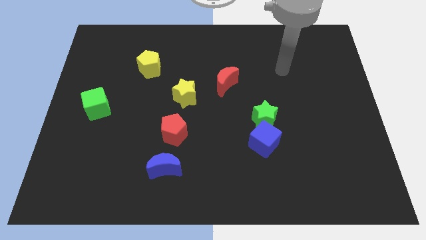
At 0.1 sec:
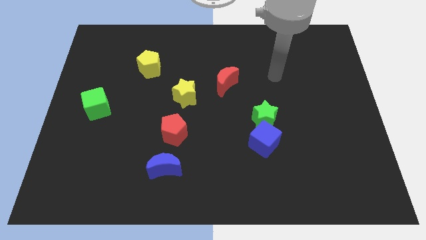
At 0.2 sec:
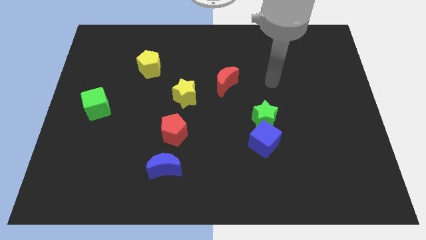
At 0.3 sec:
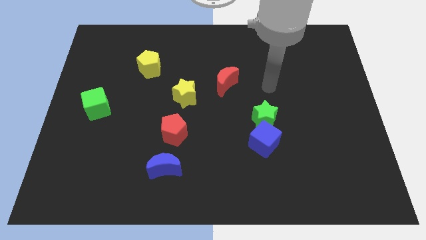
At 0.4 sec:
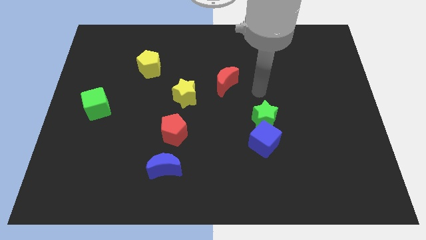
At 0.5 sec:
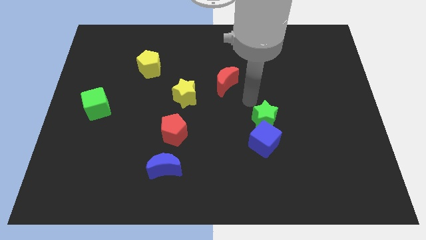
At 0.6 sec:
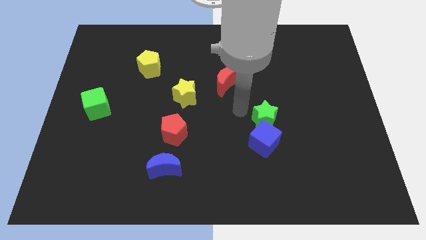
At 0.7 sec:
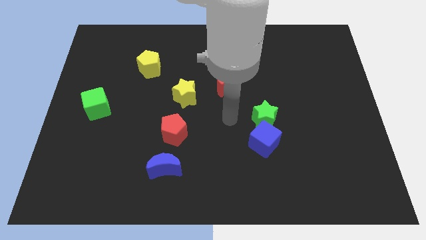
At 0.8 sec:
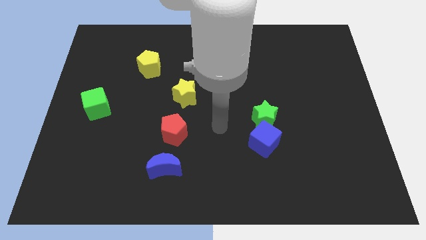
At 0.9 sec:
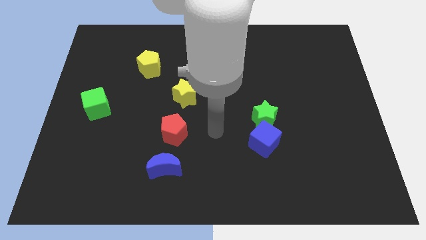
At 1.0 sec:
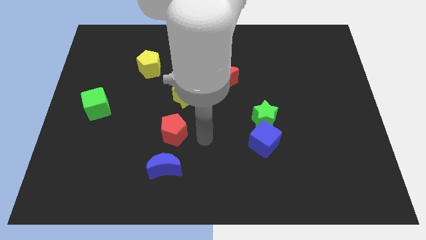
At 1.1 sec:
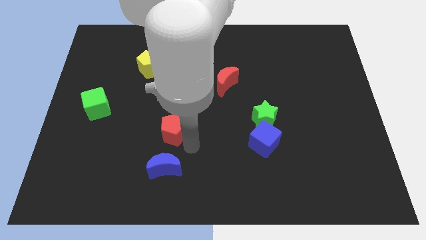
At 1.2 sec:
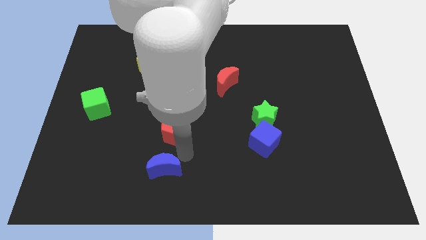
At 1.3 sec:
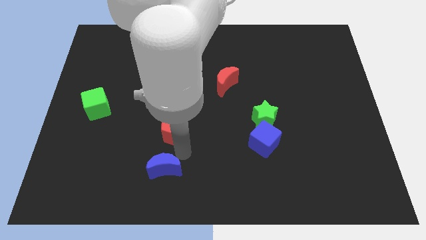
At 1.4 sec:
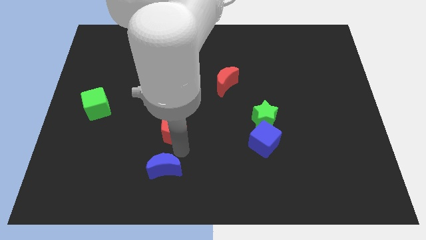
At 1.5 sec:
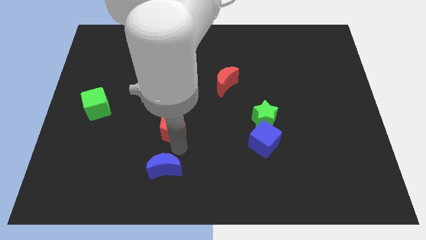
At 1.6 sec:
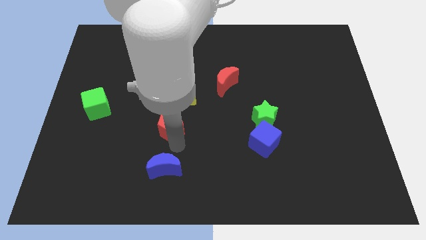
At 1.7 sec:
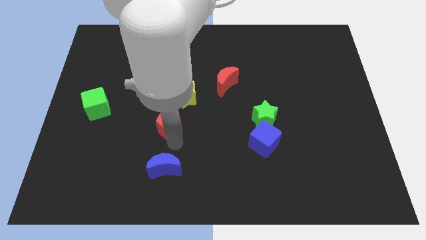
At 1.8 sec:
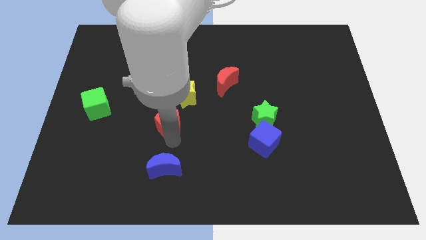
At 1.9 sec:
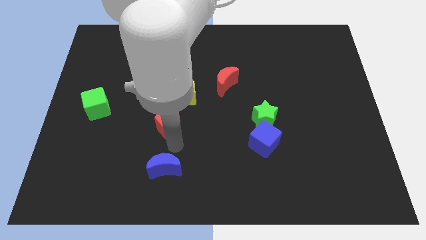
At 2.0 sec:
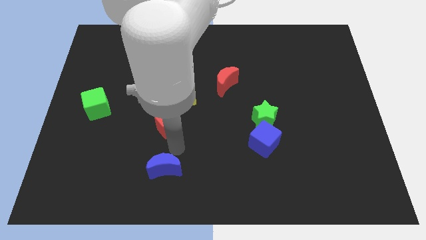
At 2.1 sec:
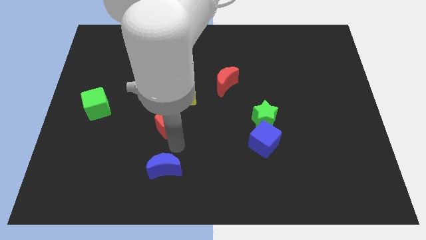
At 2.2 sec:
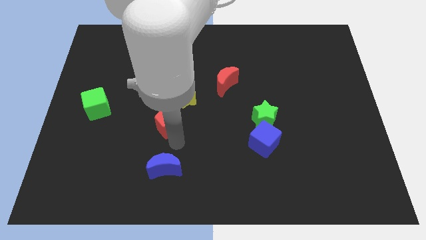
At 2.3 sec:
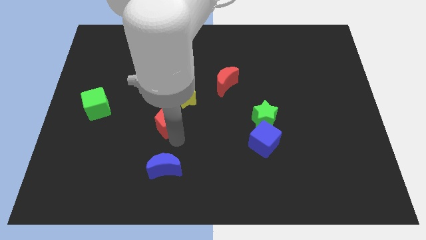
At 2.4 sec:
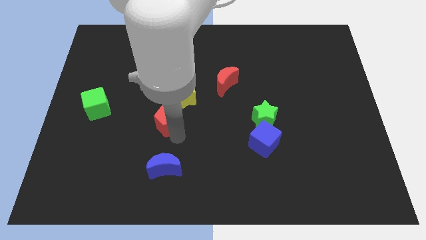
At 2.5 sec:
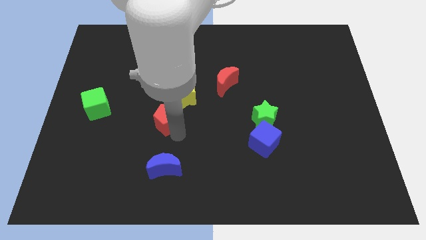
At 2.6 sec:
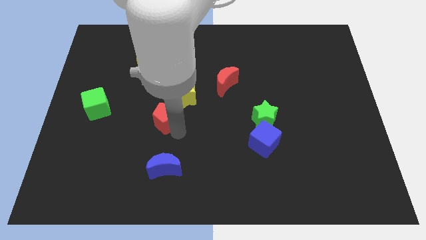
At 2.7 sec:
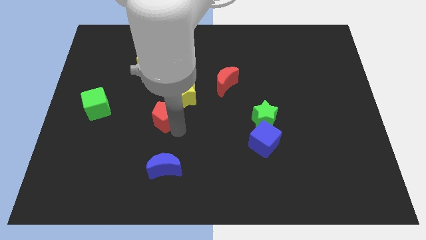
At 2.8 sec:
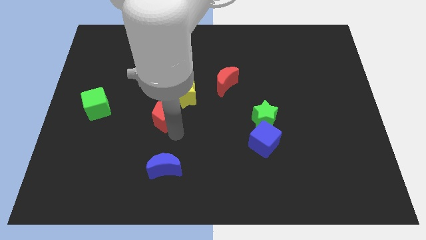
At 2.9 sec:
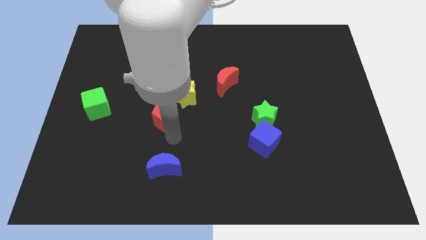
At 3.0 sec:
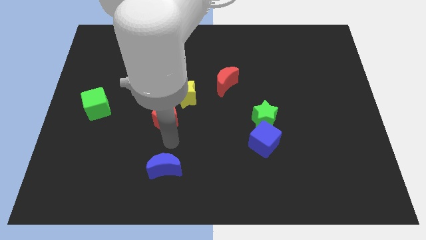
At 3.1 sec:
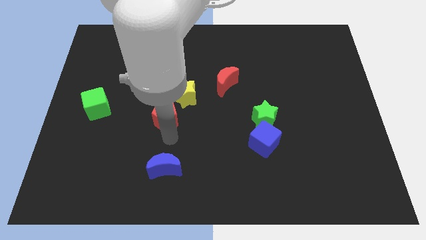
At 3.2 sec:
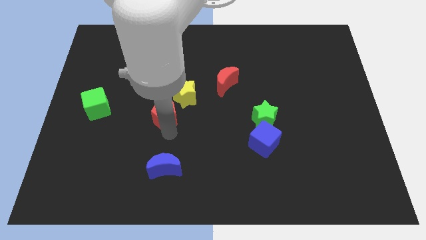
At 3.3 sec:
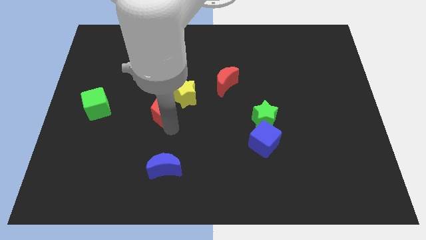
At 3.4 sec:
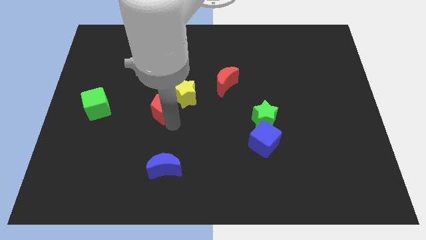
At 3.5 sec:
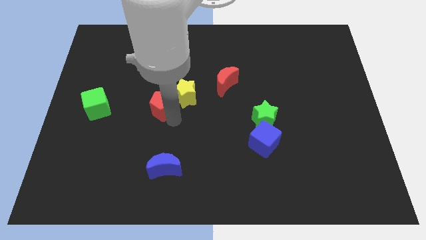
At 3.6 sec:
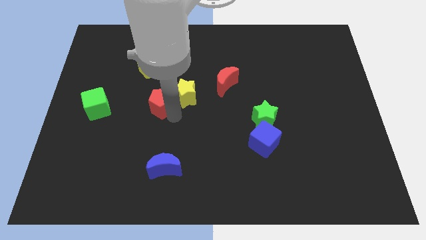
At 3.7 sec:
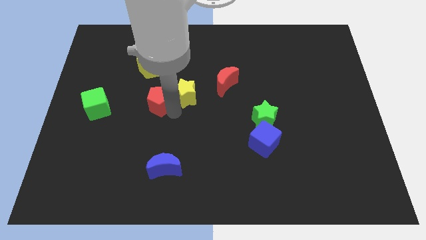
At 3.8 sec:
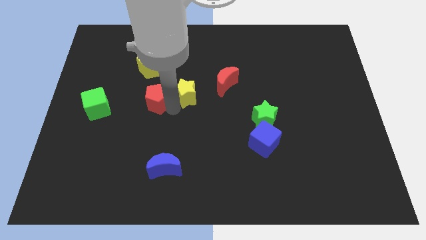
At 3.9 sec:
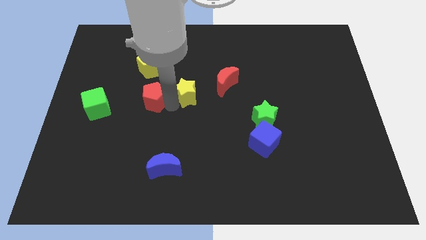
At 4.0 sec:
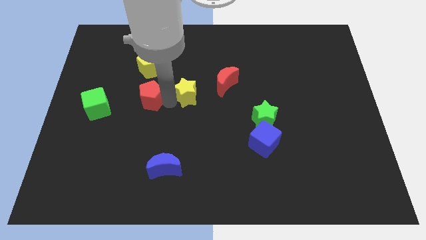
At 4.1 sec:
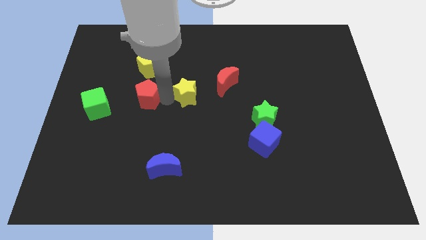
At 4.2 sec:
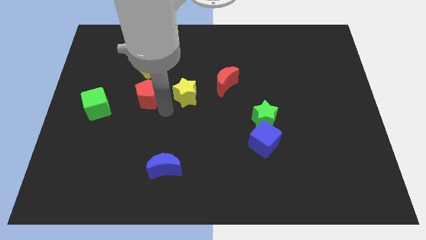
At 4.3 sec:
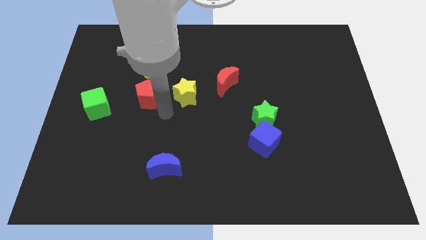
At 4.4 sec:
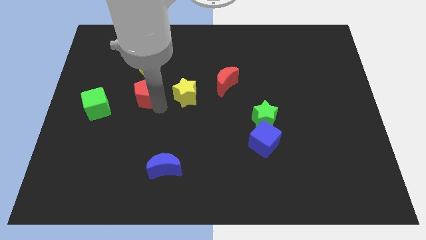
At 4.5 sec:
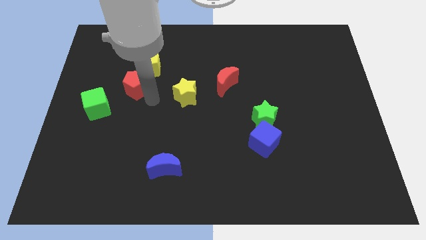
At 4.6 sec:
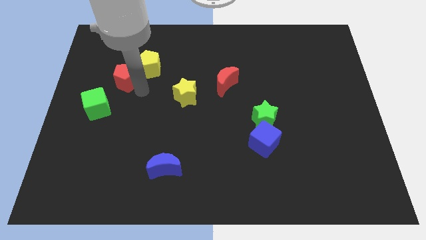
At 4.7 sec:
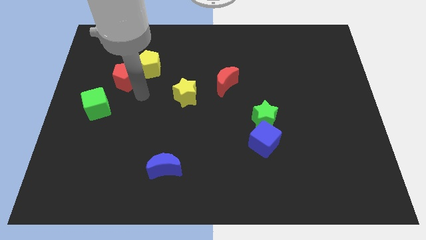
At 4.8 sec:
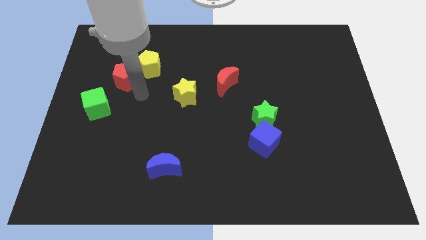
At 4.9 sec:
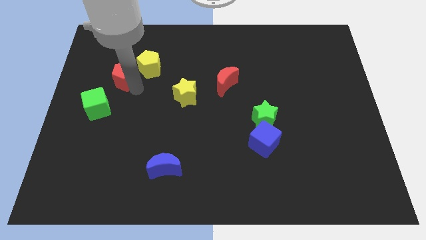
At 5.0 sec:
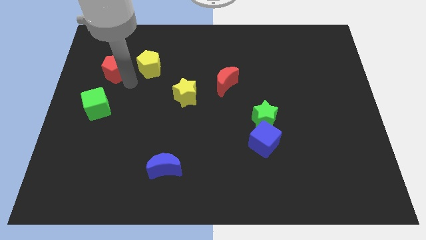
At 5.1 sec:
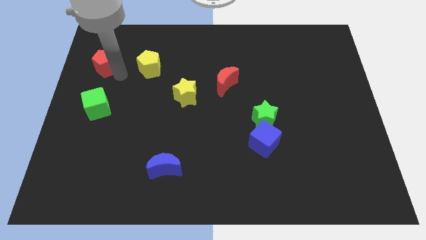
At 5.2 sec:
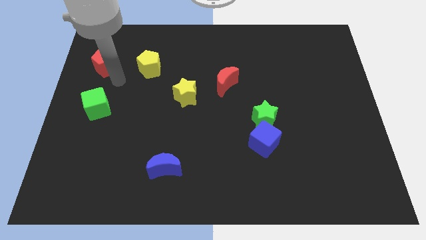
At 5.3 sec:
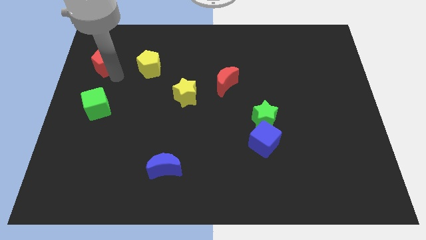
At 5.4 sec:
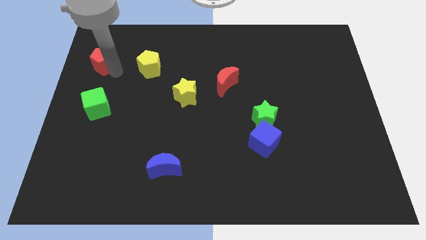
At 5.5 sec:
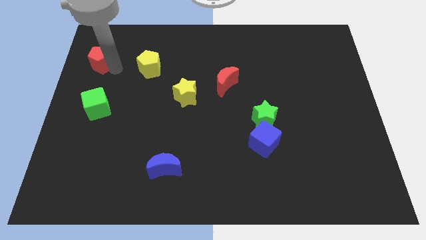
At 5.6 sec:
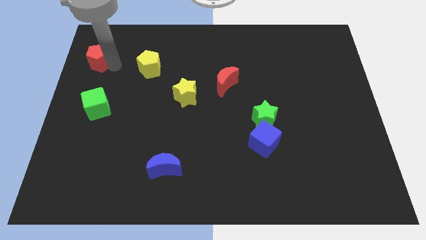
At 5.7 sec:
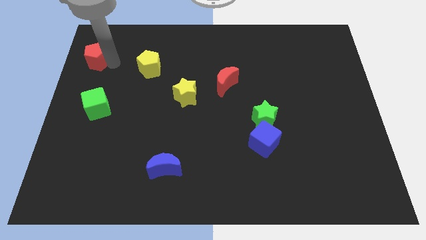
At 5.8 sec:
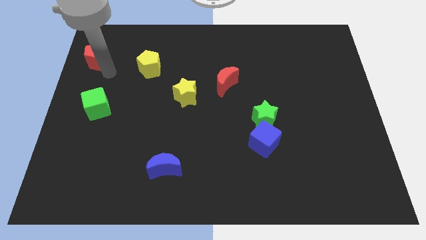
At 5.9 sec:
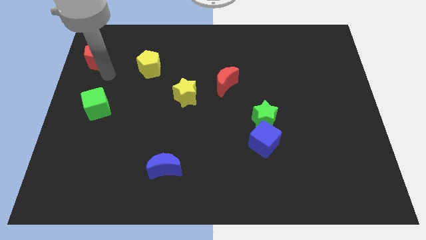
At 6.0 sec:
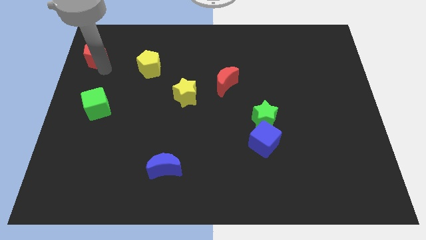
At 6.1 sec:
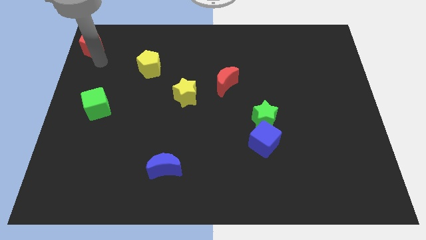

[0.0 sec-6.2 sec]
slide the red pentagon to the top left
